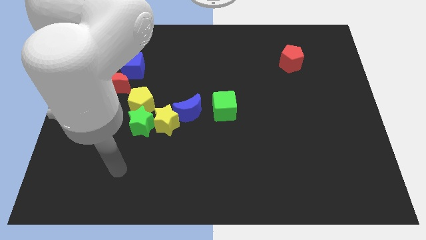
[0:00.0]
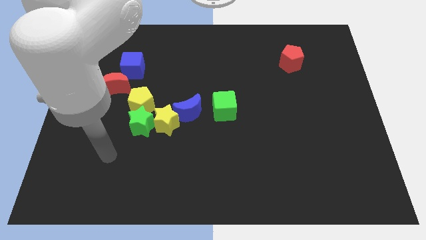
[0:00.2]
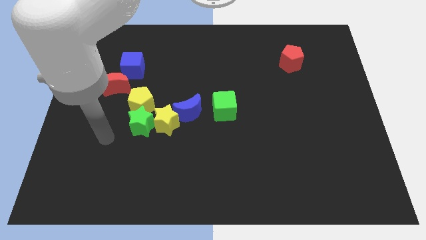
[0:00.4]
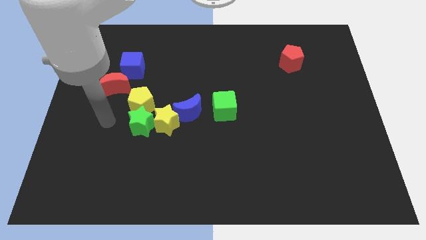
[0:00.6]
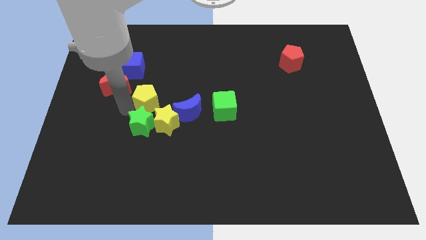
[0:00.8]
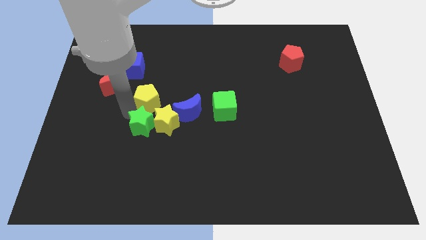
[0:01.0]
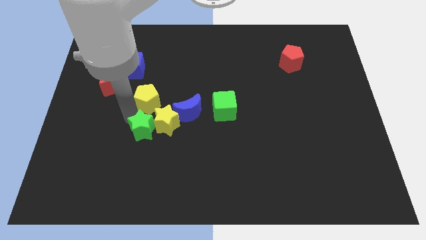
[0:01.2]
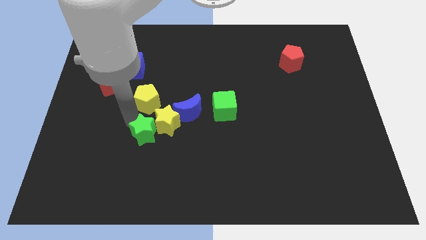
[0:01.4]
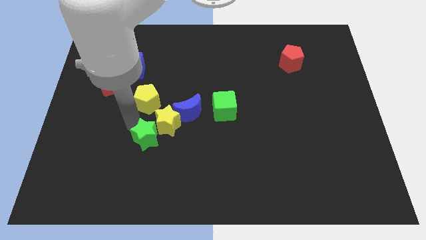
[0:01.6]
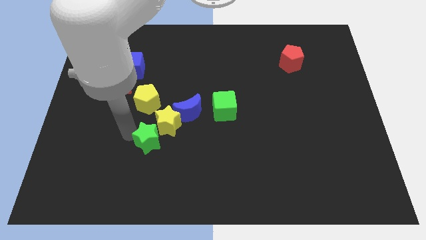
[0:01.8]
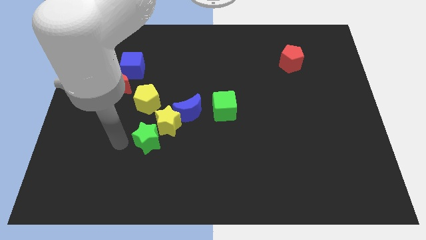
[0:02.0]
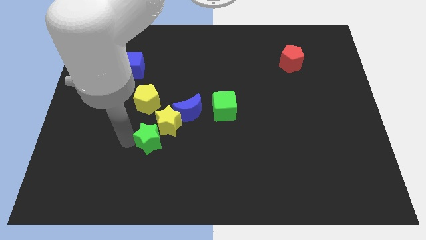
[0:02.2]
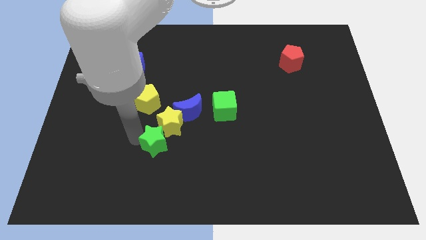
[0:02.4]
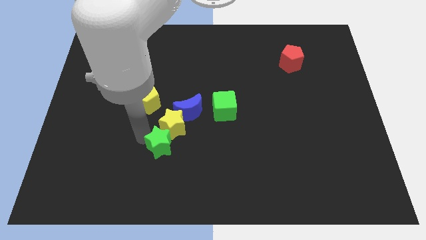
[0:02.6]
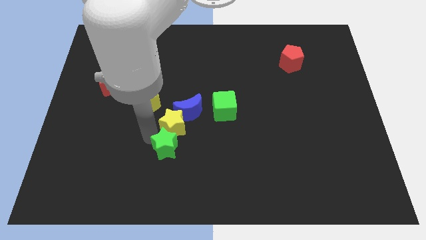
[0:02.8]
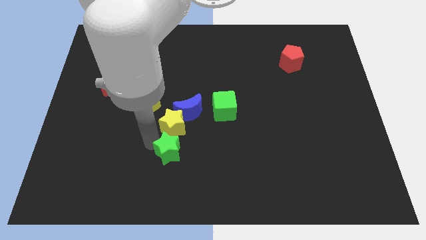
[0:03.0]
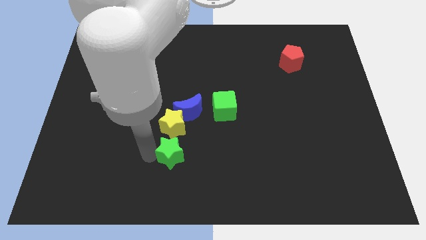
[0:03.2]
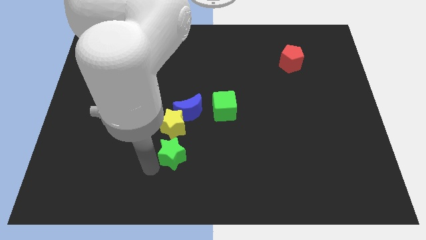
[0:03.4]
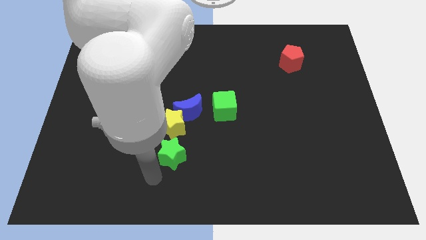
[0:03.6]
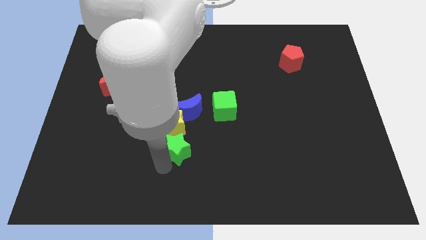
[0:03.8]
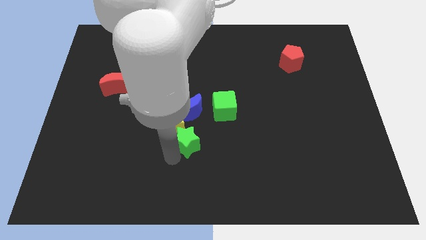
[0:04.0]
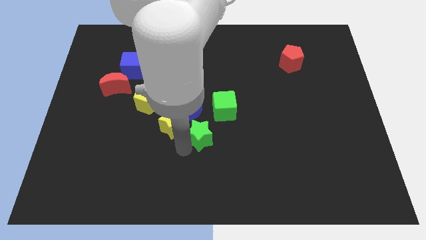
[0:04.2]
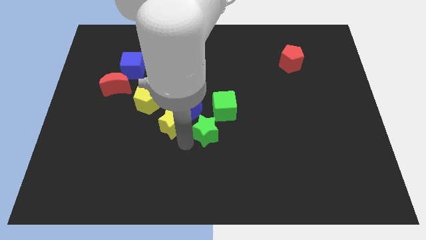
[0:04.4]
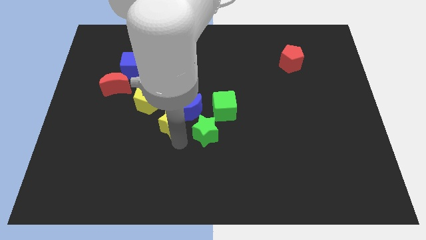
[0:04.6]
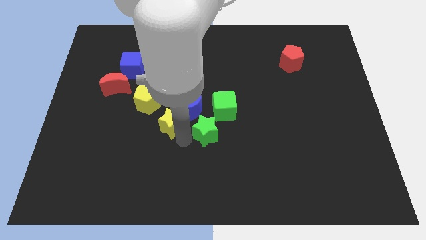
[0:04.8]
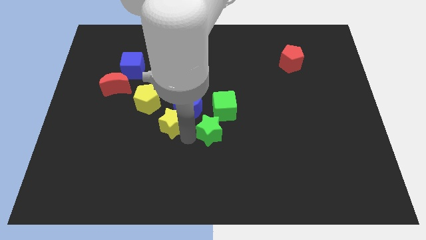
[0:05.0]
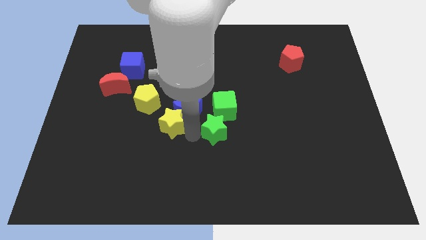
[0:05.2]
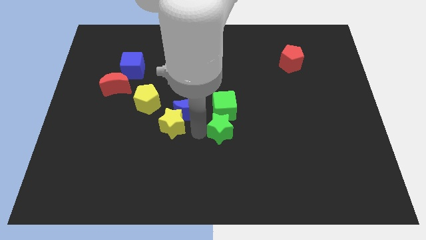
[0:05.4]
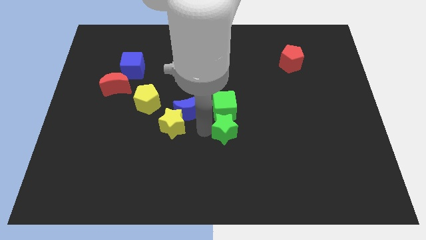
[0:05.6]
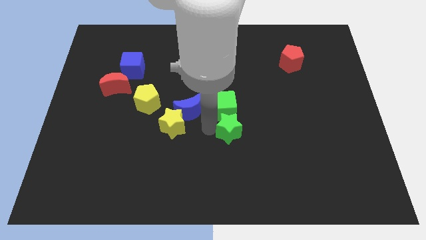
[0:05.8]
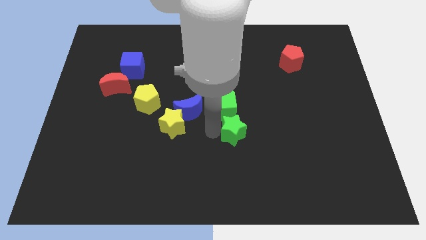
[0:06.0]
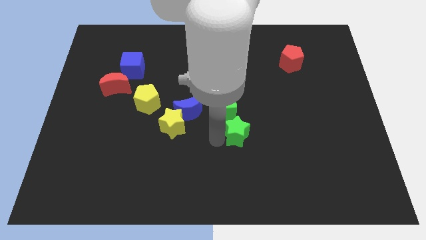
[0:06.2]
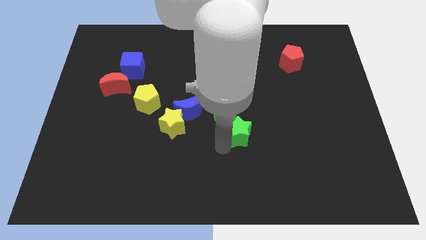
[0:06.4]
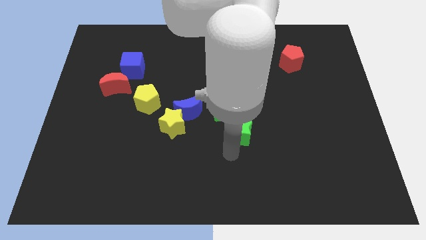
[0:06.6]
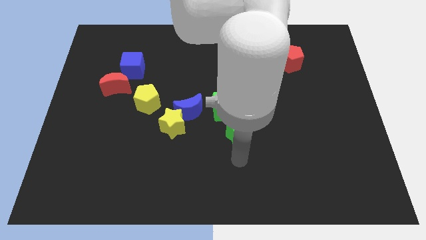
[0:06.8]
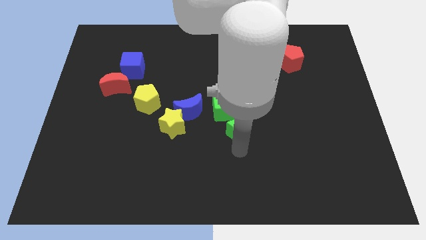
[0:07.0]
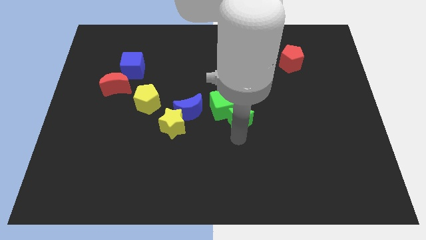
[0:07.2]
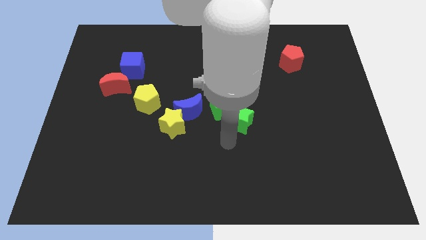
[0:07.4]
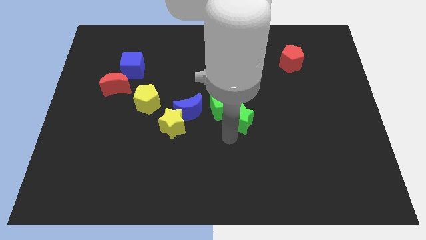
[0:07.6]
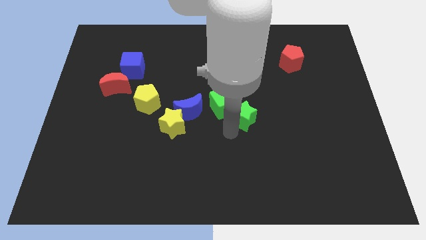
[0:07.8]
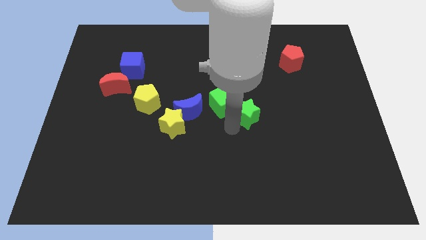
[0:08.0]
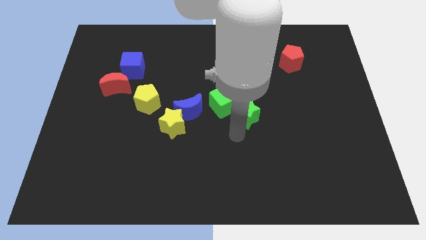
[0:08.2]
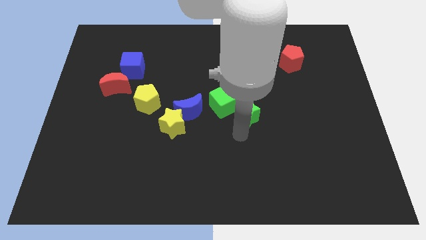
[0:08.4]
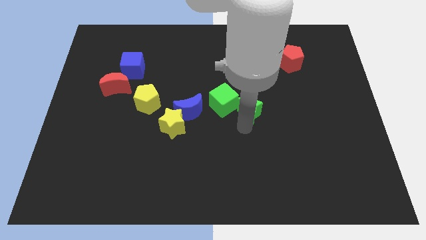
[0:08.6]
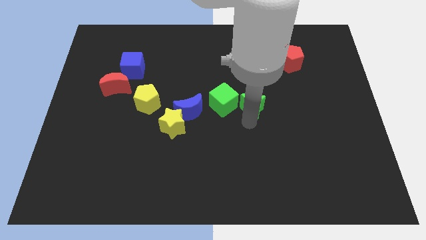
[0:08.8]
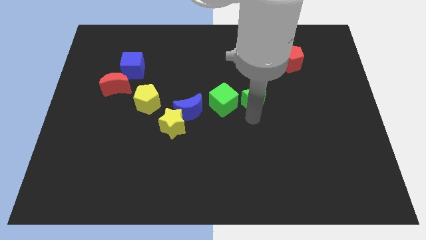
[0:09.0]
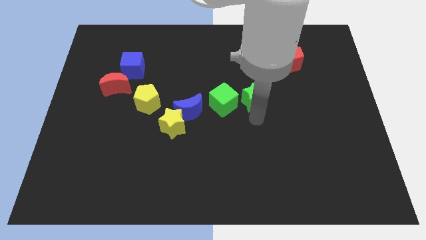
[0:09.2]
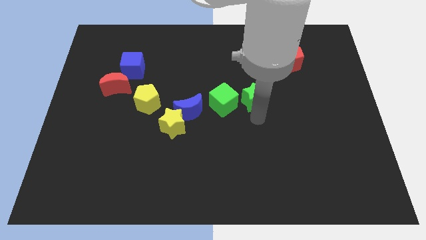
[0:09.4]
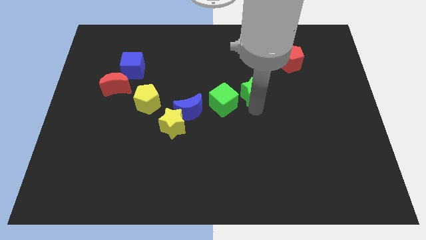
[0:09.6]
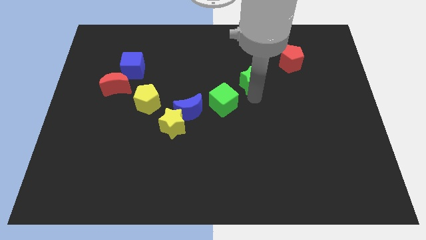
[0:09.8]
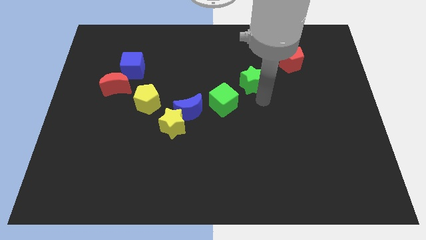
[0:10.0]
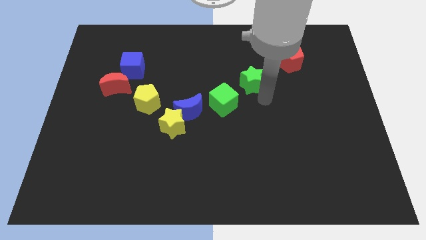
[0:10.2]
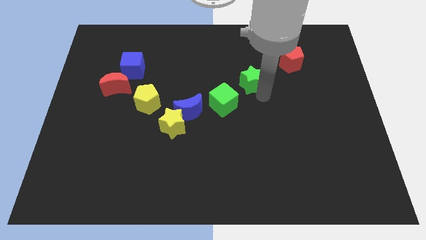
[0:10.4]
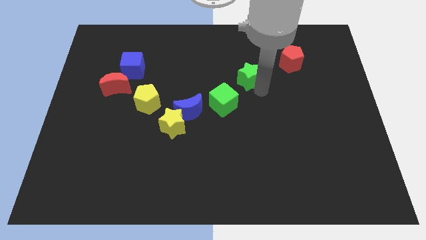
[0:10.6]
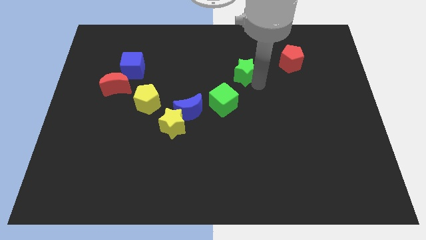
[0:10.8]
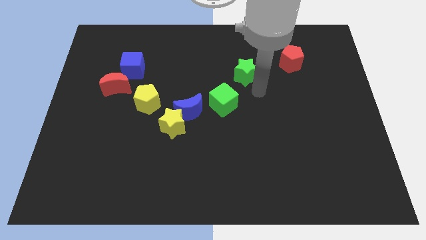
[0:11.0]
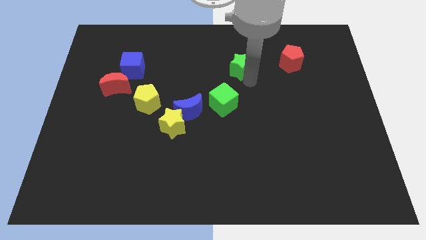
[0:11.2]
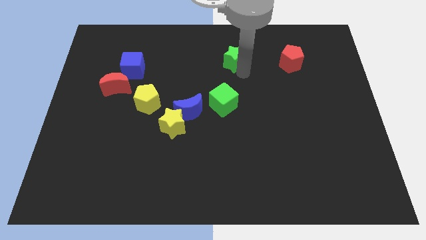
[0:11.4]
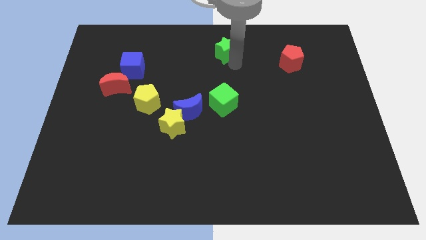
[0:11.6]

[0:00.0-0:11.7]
push the green star to the top

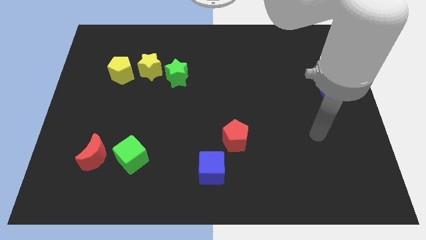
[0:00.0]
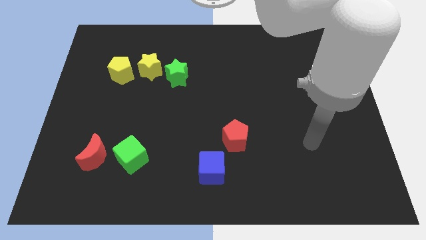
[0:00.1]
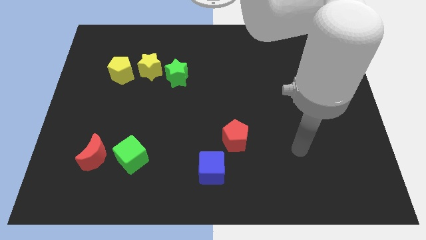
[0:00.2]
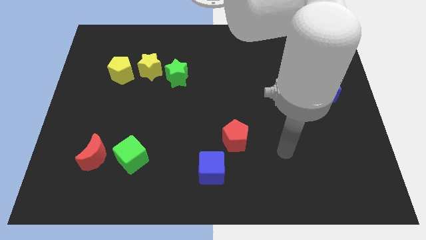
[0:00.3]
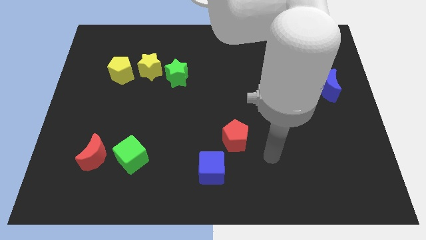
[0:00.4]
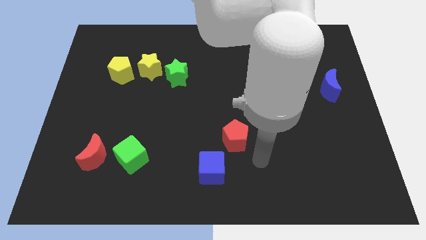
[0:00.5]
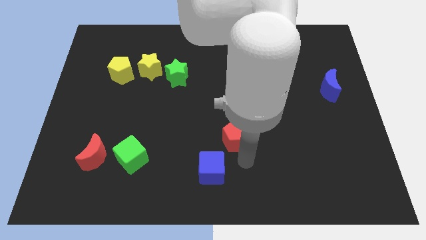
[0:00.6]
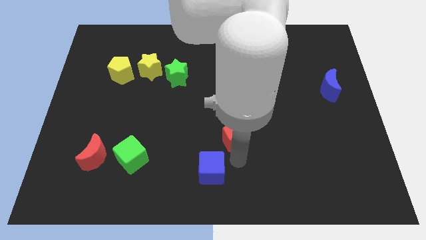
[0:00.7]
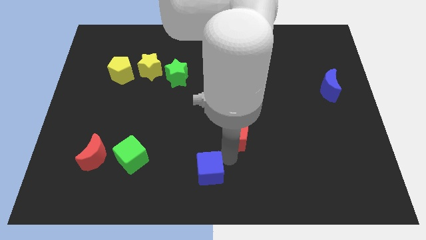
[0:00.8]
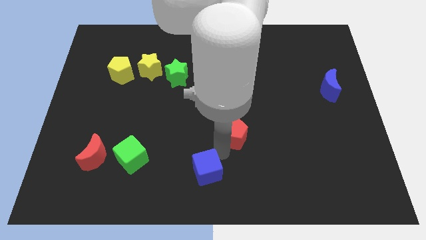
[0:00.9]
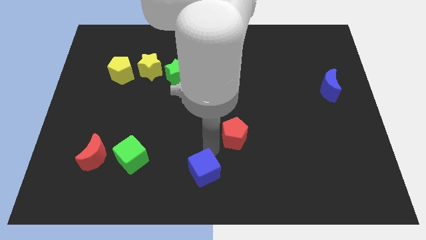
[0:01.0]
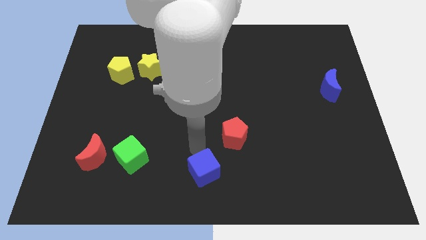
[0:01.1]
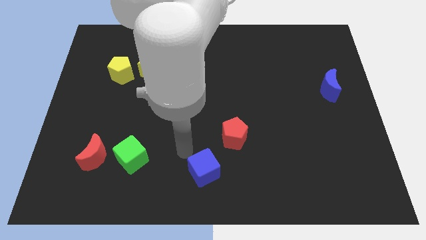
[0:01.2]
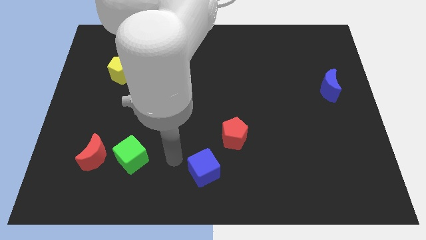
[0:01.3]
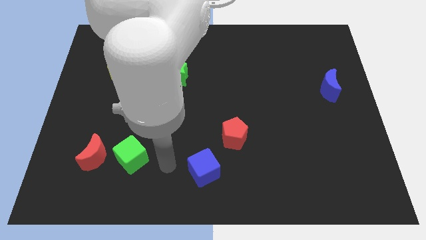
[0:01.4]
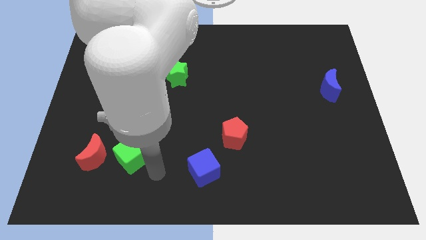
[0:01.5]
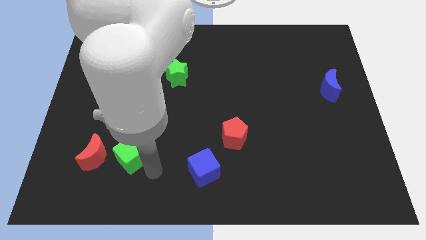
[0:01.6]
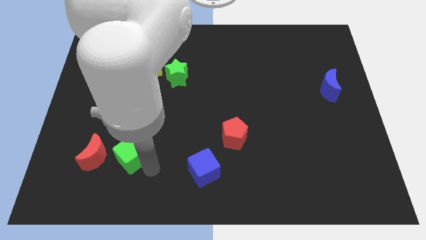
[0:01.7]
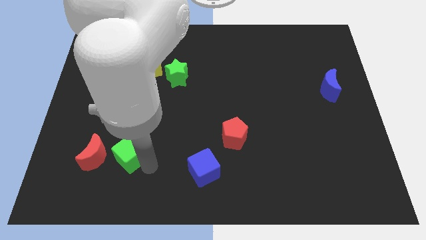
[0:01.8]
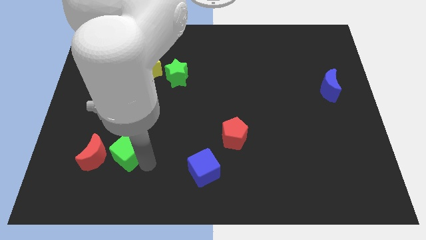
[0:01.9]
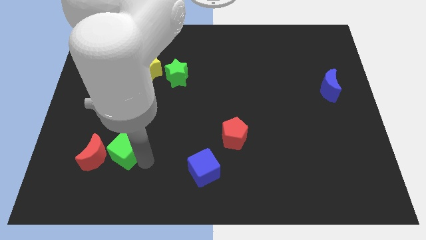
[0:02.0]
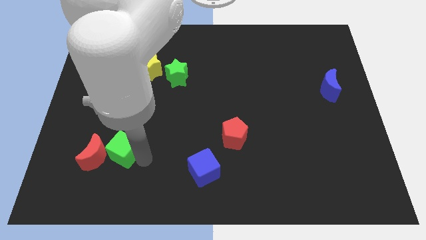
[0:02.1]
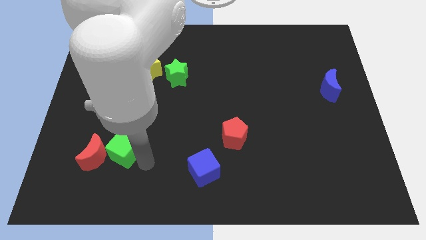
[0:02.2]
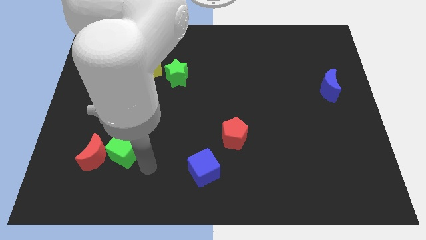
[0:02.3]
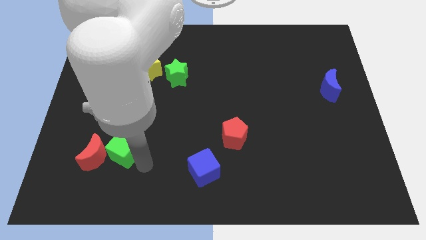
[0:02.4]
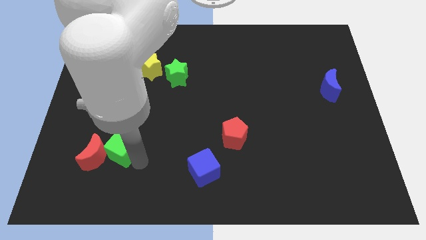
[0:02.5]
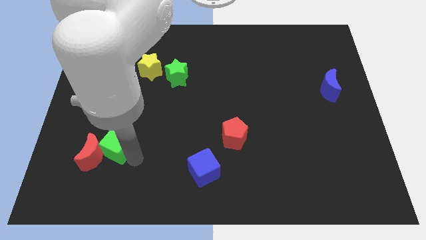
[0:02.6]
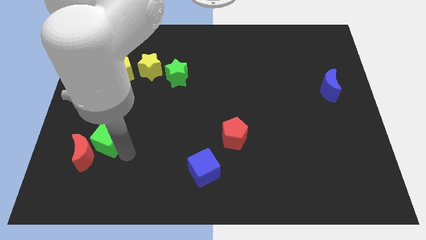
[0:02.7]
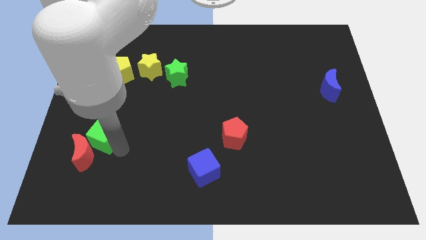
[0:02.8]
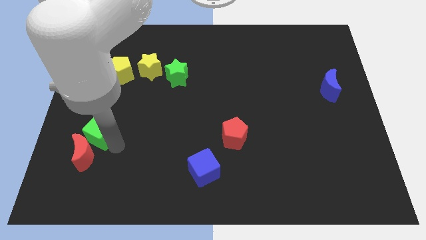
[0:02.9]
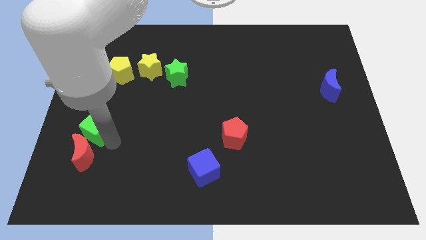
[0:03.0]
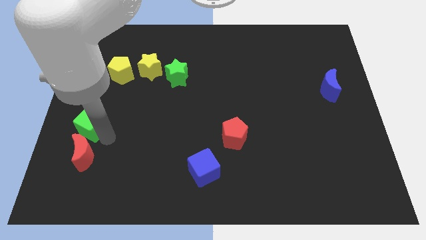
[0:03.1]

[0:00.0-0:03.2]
move the green cube to the left side
